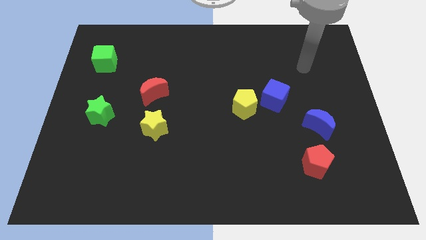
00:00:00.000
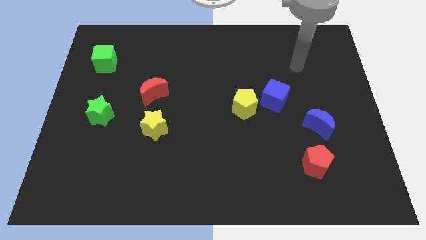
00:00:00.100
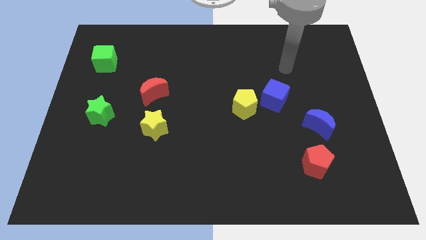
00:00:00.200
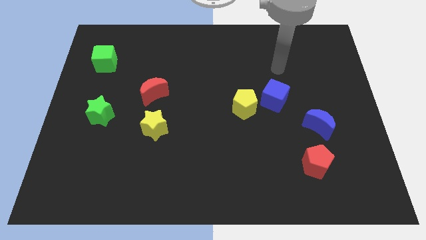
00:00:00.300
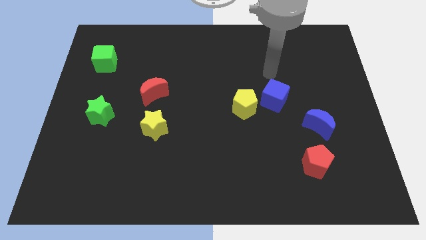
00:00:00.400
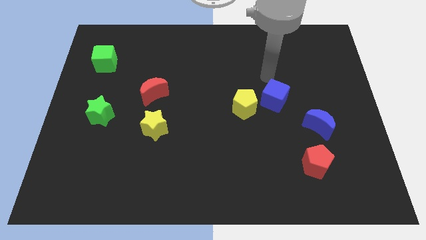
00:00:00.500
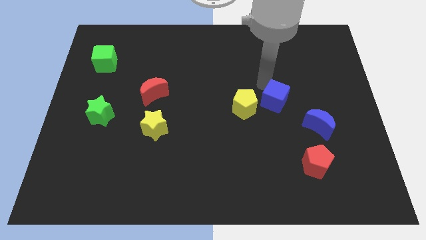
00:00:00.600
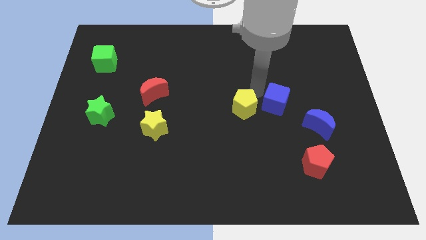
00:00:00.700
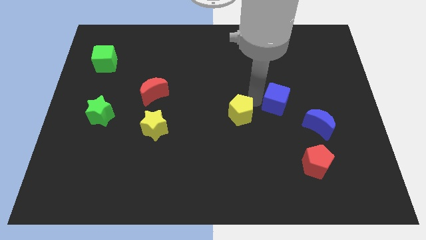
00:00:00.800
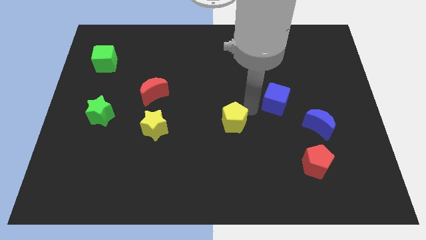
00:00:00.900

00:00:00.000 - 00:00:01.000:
move the blue cube away from the yellow pentagon

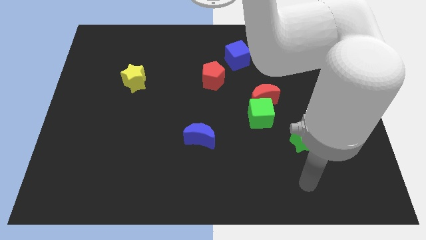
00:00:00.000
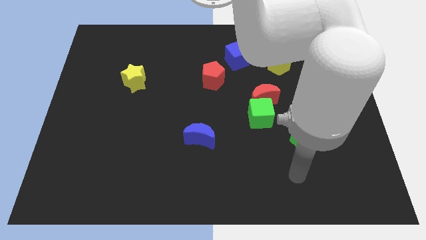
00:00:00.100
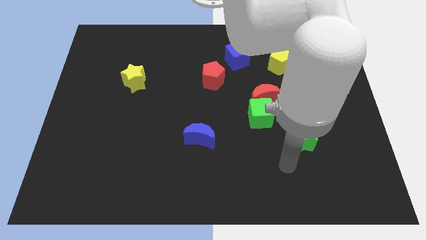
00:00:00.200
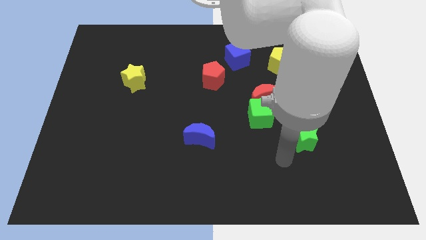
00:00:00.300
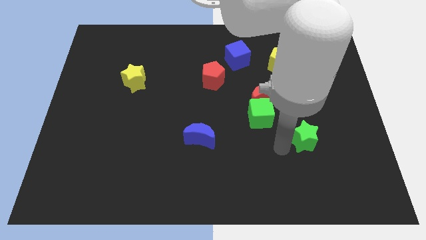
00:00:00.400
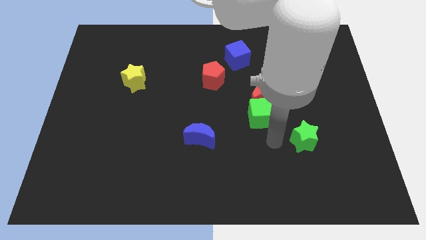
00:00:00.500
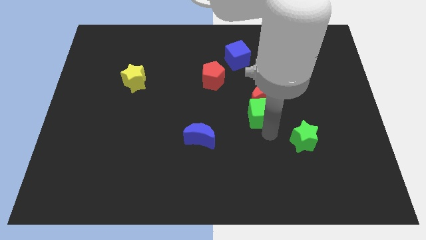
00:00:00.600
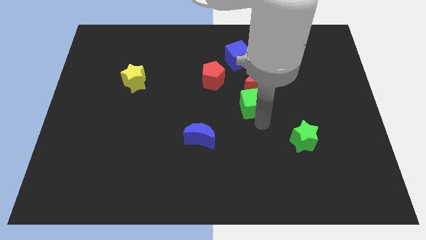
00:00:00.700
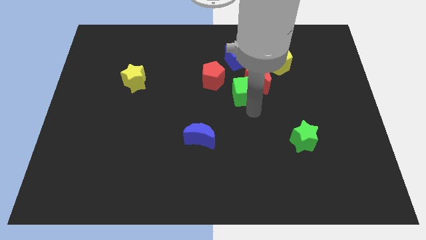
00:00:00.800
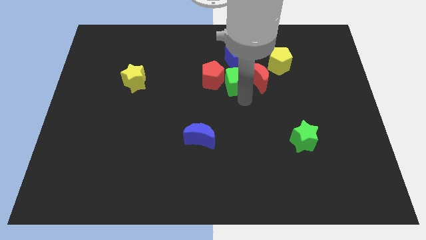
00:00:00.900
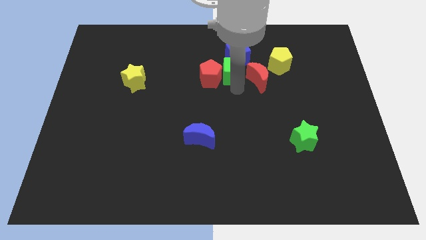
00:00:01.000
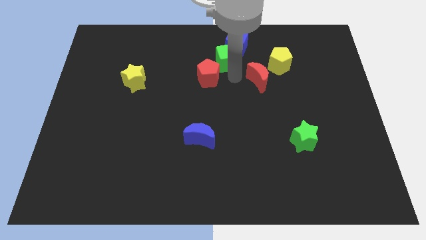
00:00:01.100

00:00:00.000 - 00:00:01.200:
pull the red moon apart from the green cube

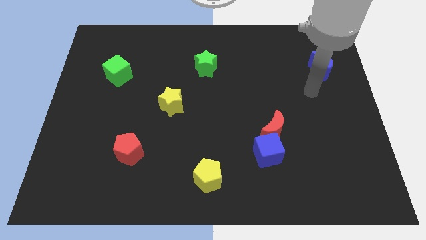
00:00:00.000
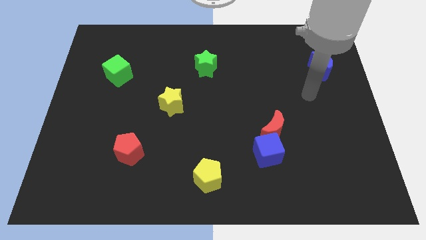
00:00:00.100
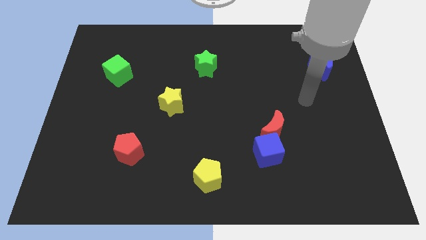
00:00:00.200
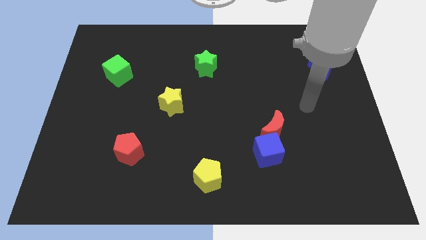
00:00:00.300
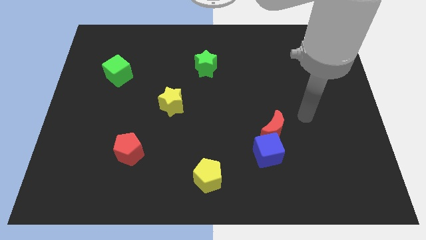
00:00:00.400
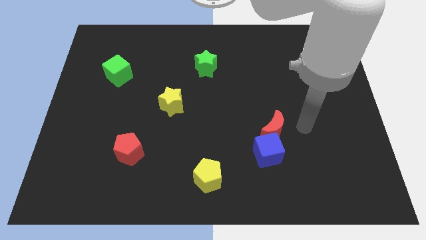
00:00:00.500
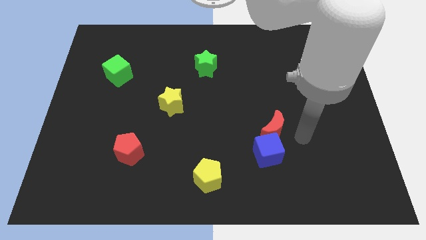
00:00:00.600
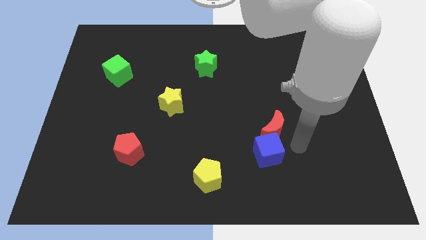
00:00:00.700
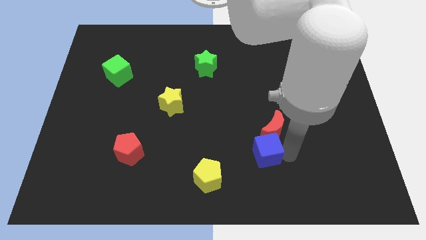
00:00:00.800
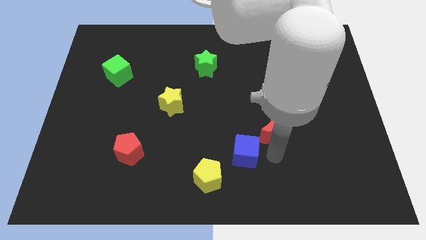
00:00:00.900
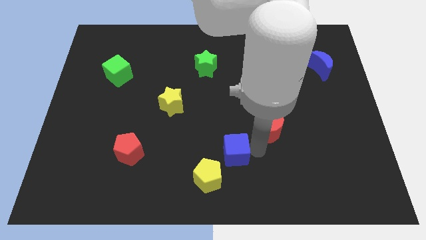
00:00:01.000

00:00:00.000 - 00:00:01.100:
separate the red moon from the blue cube

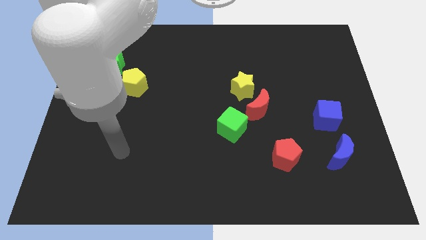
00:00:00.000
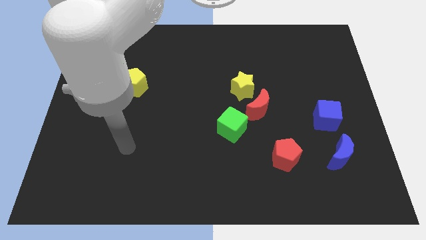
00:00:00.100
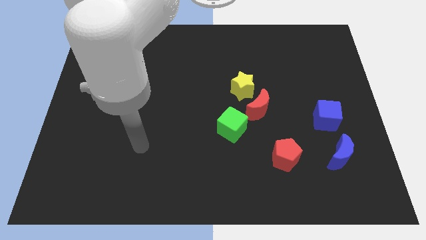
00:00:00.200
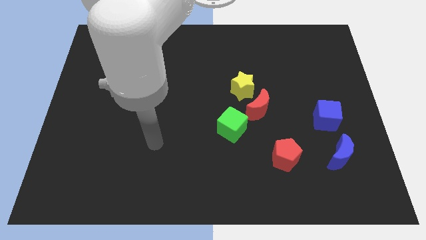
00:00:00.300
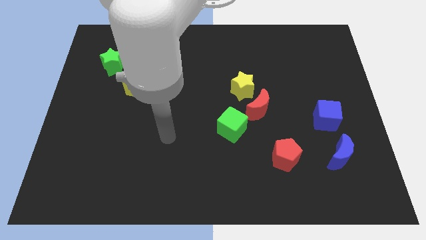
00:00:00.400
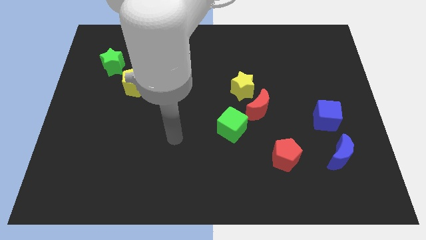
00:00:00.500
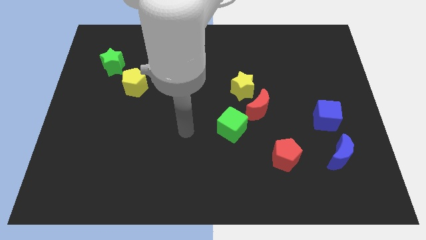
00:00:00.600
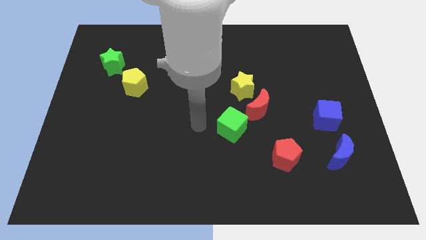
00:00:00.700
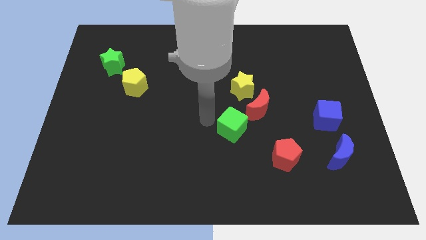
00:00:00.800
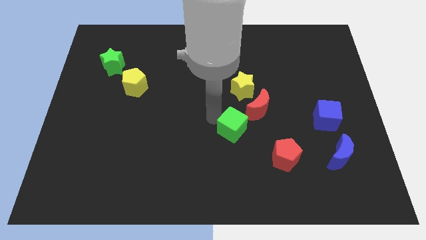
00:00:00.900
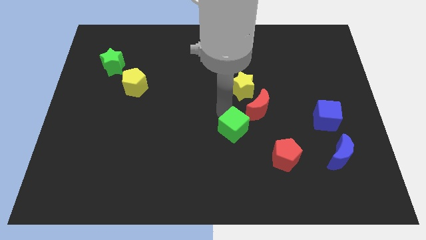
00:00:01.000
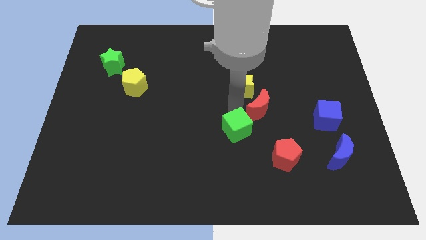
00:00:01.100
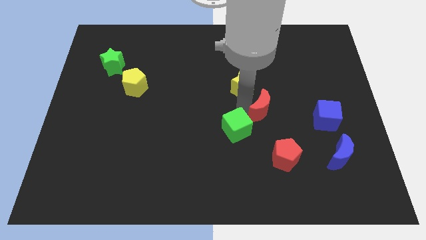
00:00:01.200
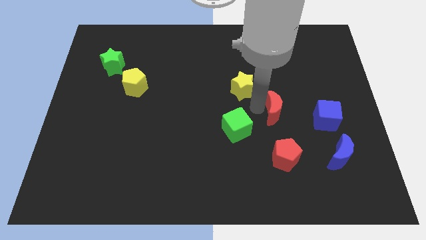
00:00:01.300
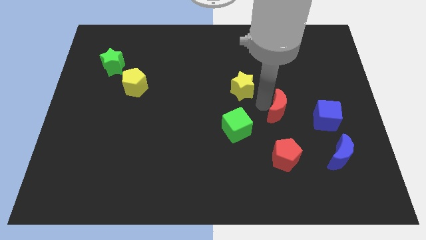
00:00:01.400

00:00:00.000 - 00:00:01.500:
move the yellow star away from the red moon

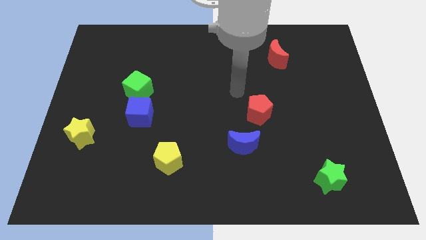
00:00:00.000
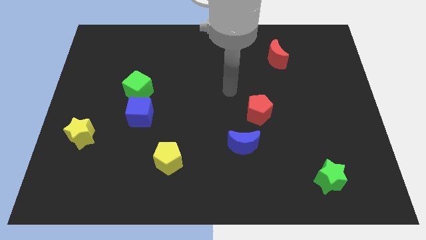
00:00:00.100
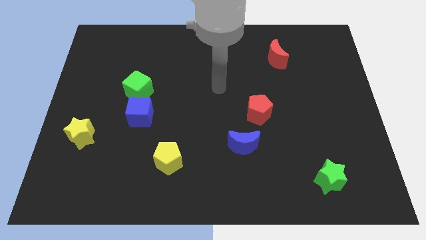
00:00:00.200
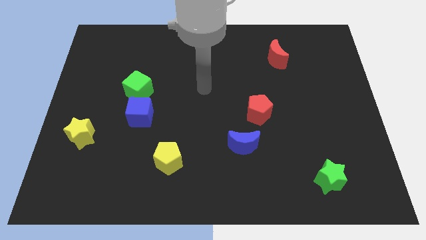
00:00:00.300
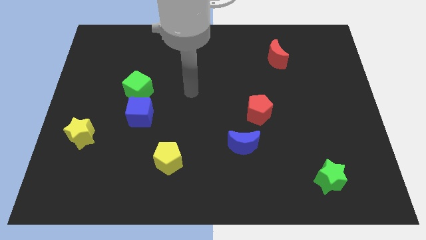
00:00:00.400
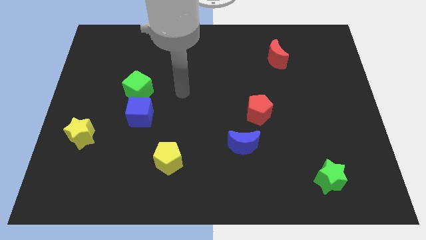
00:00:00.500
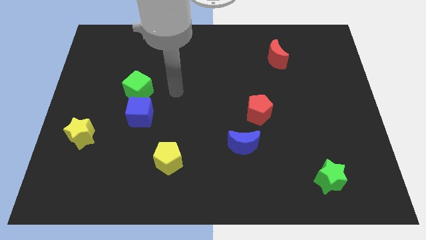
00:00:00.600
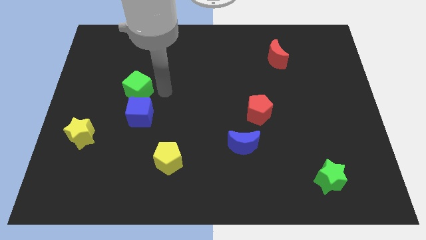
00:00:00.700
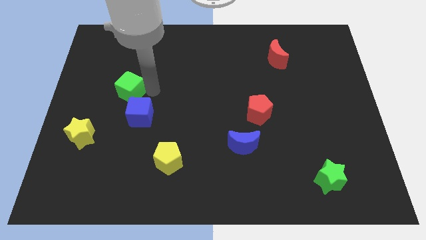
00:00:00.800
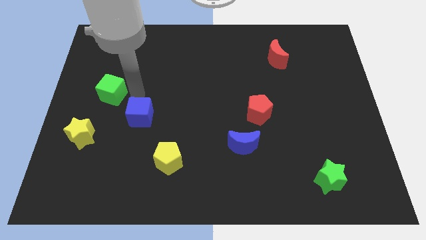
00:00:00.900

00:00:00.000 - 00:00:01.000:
separate the blue cube from the green cube

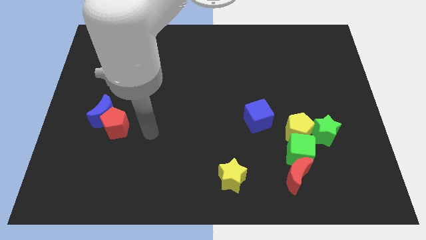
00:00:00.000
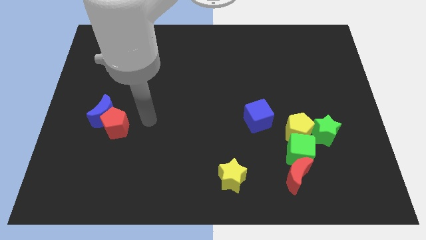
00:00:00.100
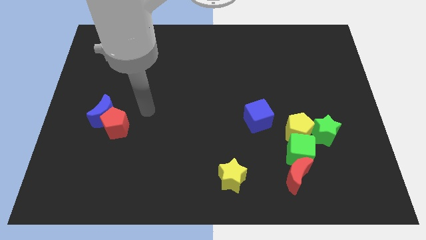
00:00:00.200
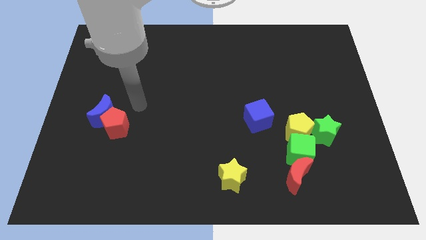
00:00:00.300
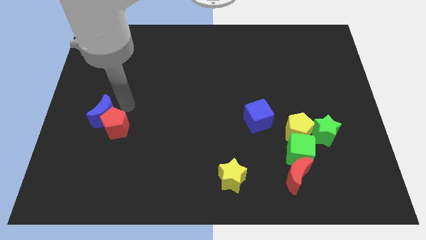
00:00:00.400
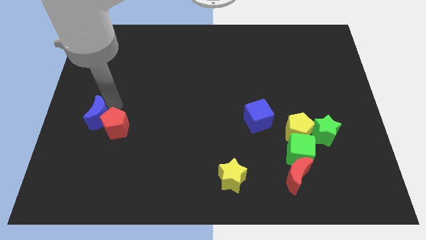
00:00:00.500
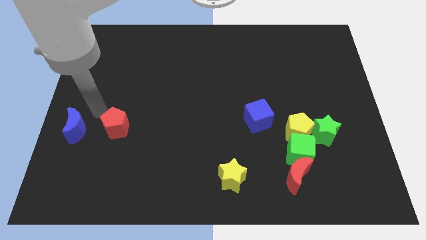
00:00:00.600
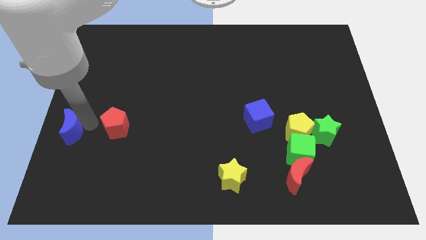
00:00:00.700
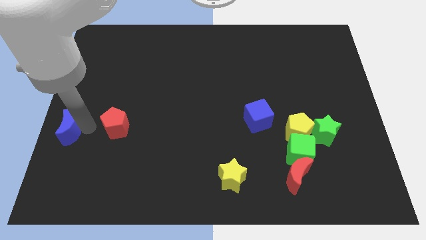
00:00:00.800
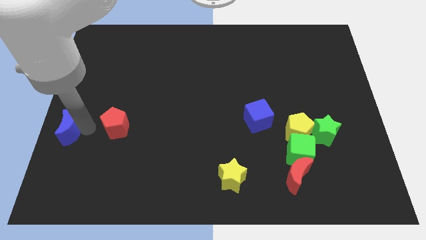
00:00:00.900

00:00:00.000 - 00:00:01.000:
pull the red pentagon apart from the blue moon

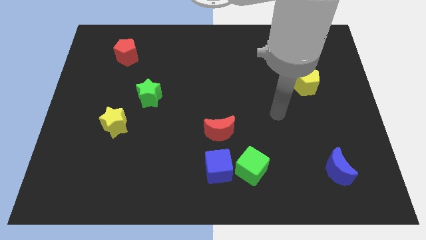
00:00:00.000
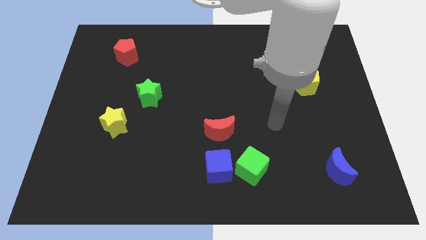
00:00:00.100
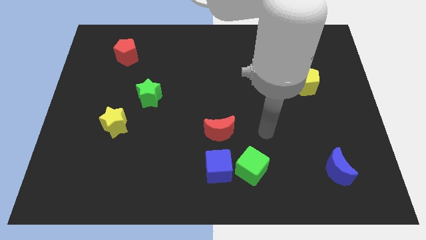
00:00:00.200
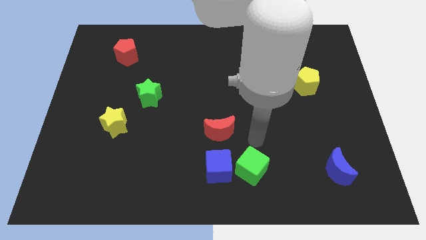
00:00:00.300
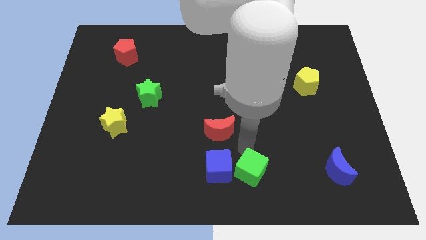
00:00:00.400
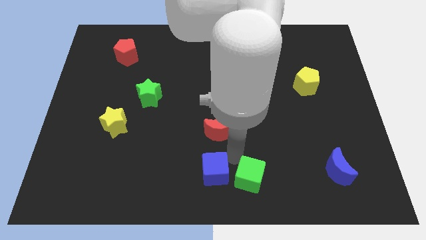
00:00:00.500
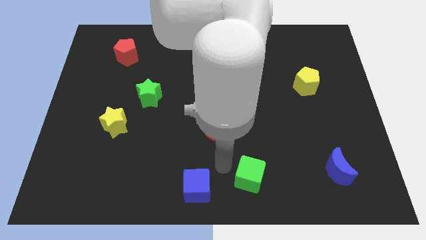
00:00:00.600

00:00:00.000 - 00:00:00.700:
pull the green cube apart from the blue cube

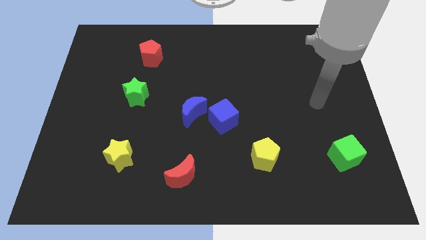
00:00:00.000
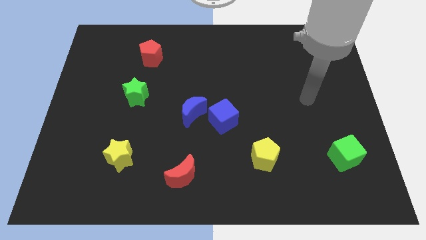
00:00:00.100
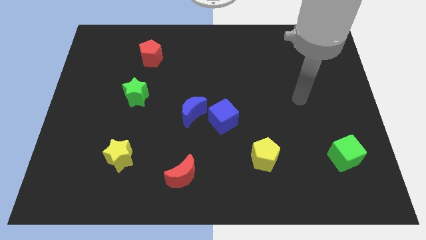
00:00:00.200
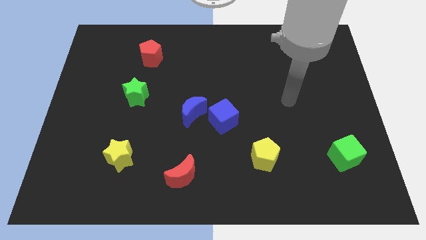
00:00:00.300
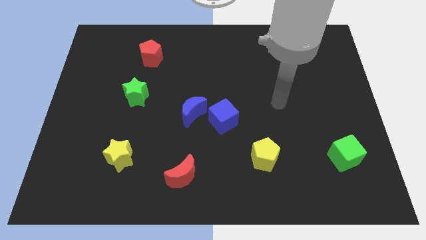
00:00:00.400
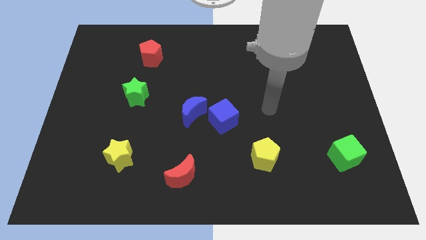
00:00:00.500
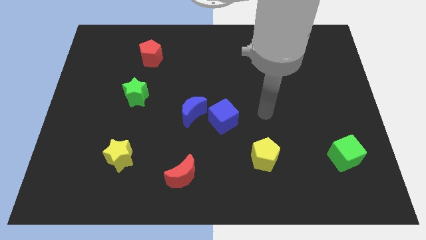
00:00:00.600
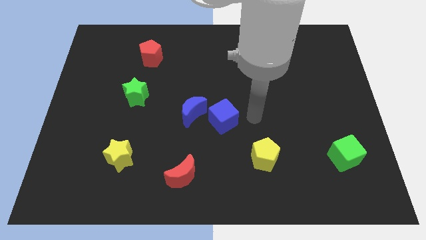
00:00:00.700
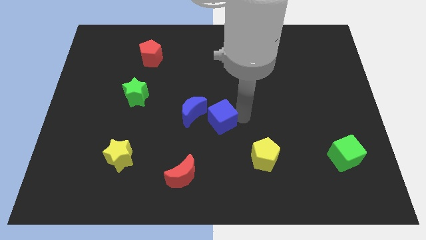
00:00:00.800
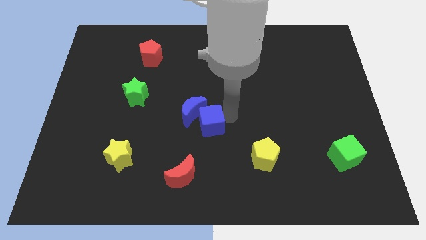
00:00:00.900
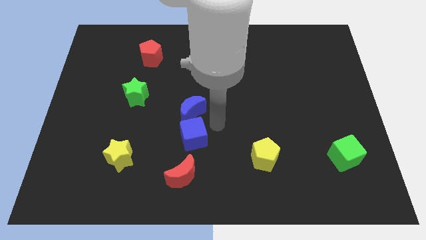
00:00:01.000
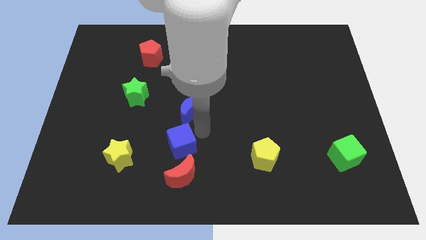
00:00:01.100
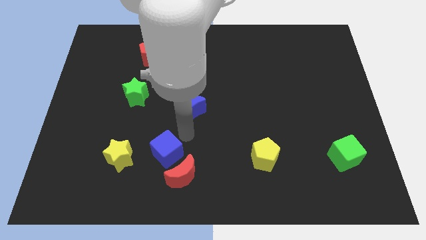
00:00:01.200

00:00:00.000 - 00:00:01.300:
separate the blue moon from the blue cube

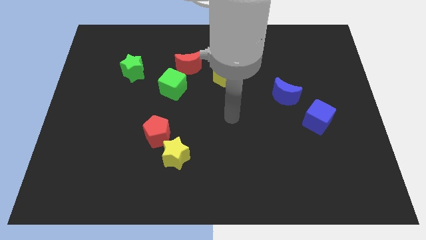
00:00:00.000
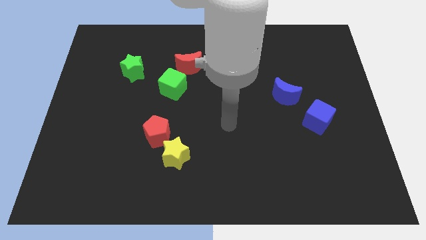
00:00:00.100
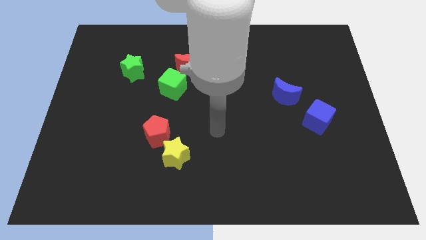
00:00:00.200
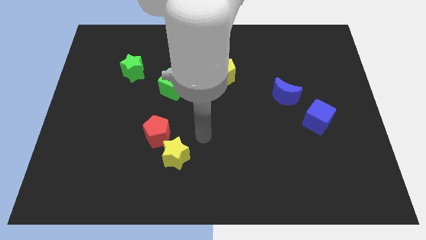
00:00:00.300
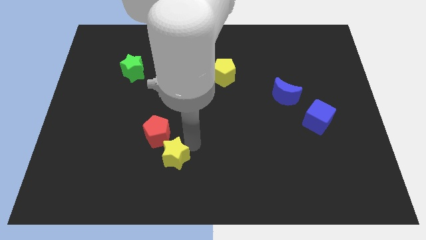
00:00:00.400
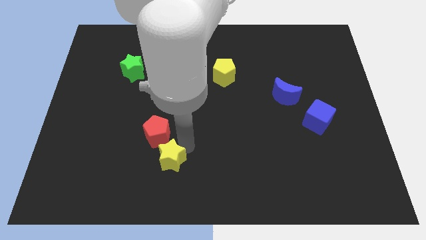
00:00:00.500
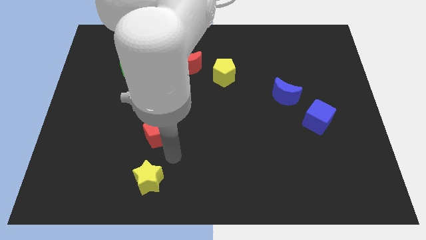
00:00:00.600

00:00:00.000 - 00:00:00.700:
pull the red pentagon apart from the yellow star
